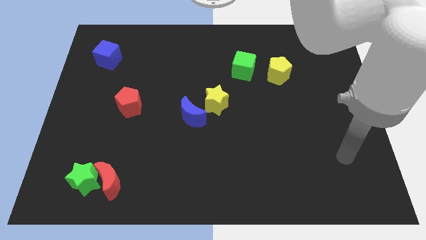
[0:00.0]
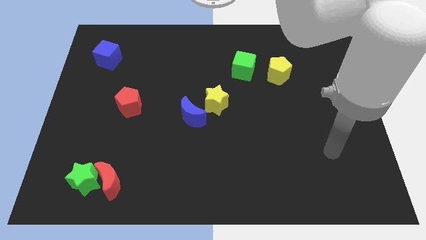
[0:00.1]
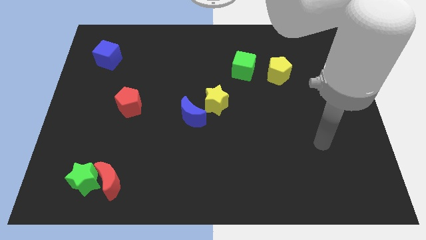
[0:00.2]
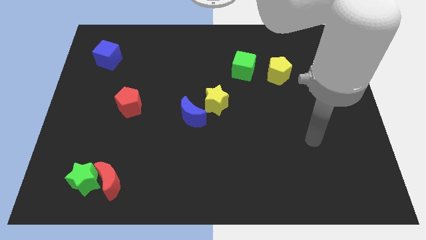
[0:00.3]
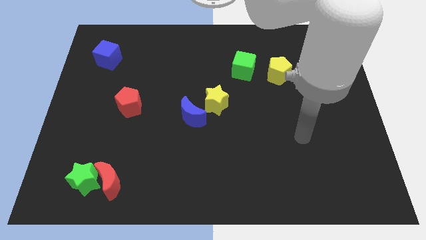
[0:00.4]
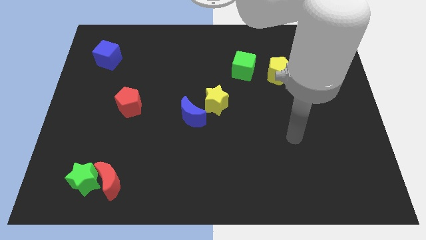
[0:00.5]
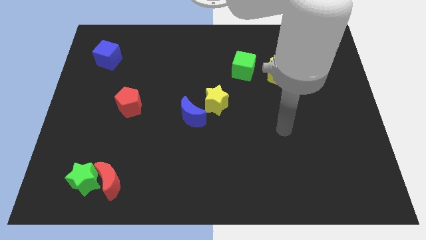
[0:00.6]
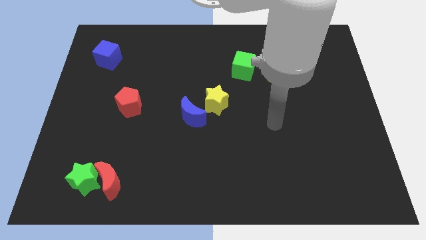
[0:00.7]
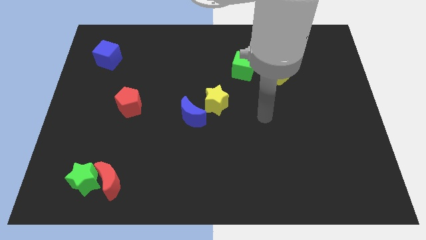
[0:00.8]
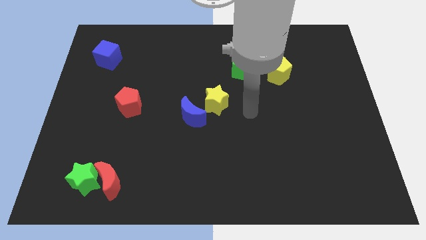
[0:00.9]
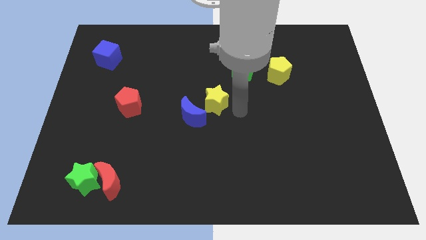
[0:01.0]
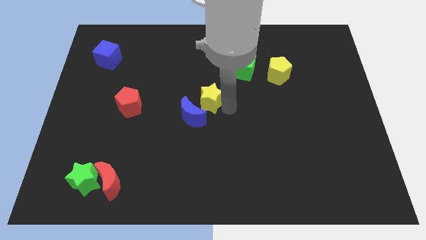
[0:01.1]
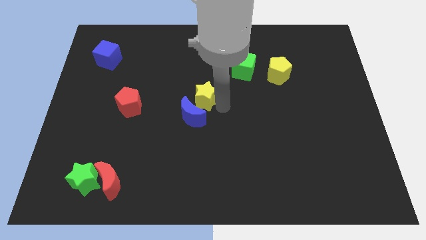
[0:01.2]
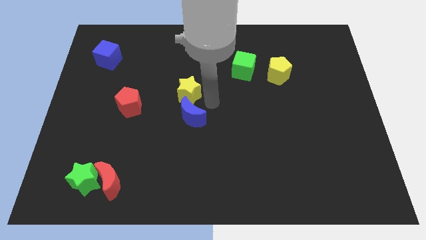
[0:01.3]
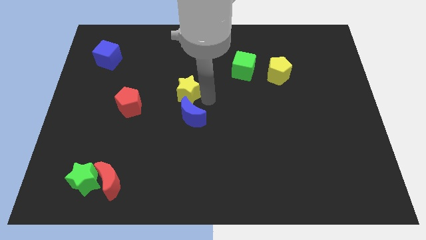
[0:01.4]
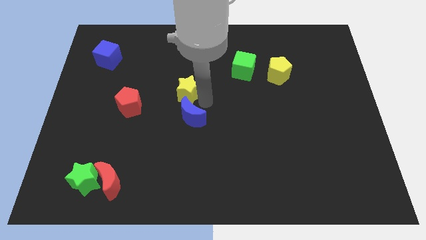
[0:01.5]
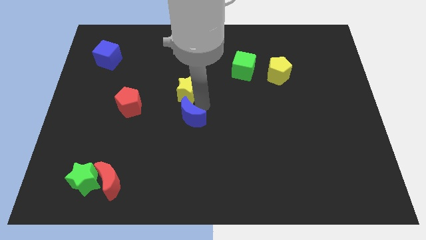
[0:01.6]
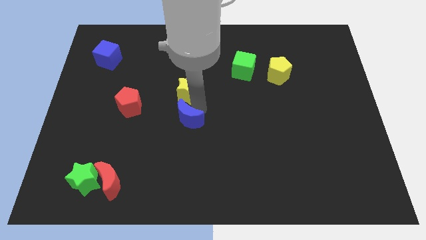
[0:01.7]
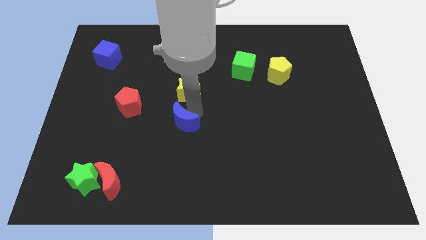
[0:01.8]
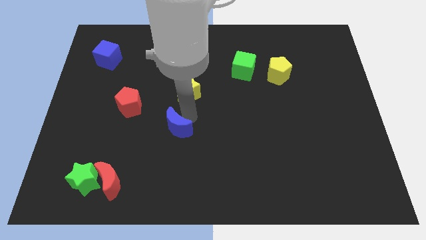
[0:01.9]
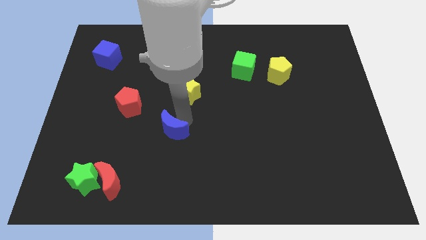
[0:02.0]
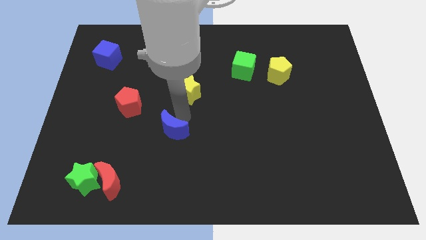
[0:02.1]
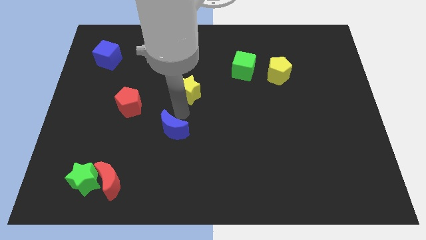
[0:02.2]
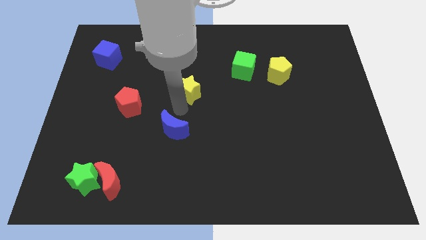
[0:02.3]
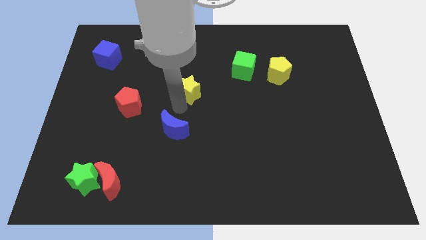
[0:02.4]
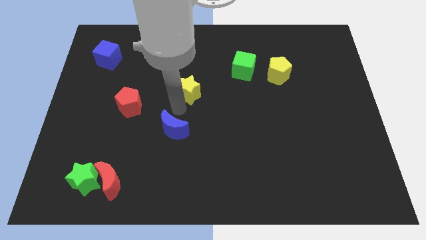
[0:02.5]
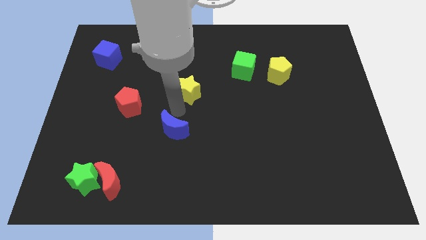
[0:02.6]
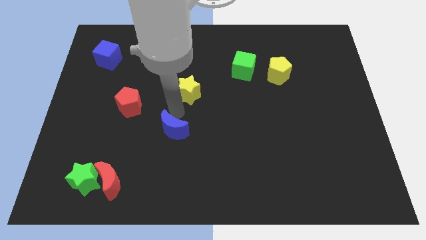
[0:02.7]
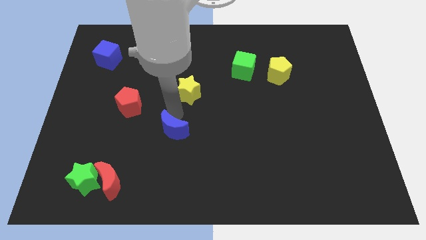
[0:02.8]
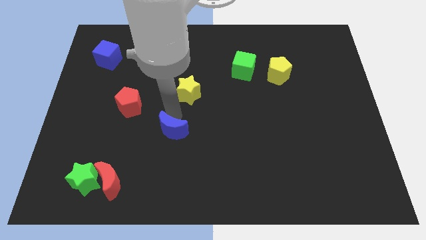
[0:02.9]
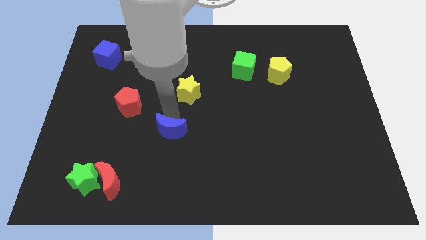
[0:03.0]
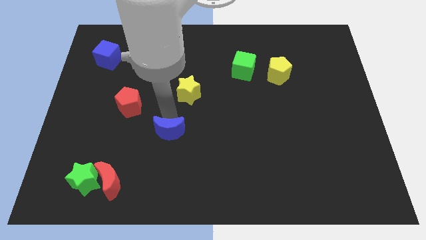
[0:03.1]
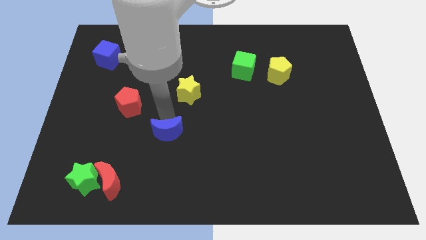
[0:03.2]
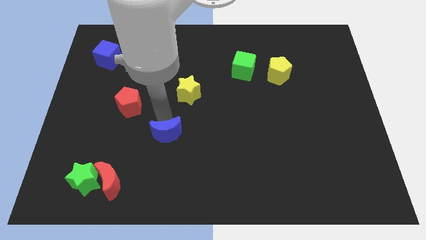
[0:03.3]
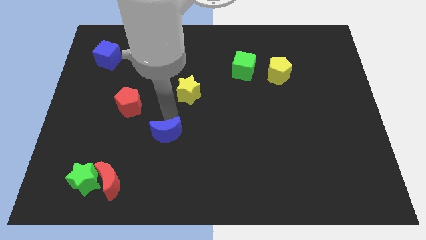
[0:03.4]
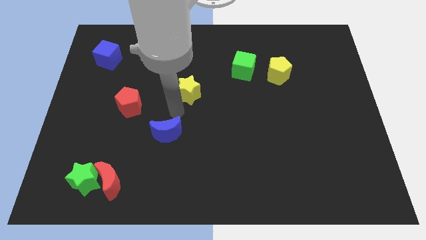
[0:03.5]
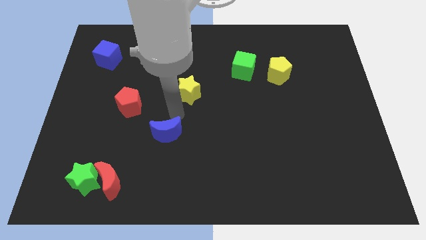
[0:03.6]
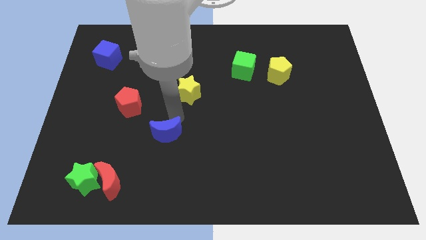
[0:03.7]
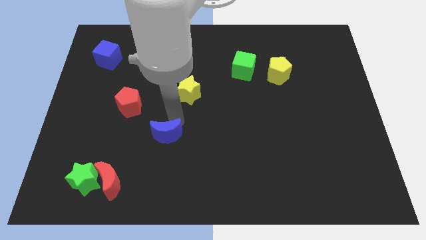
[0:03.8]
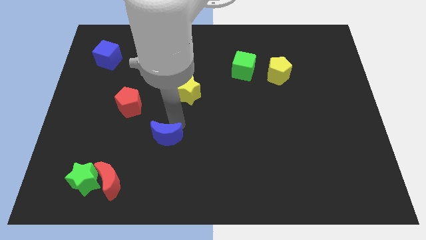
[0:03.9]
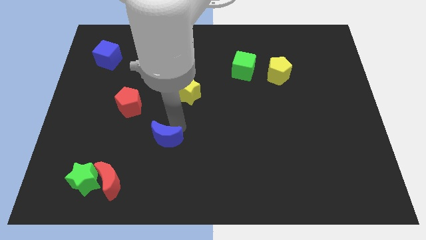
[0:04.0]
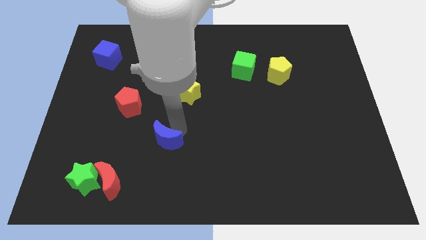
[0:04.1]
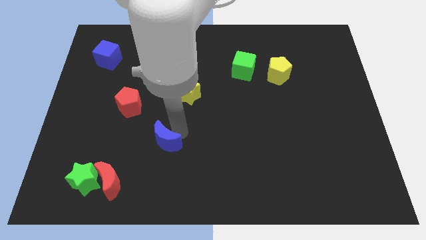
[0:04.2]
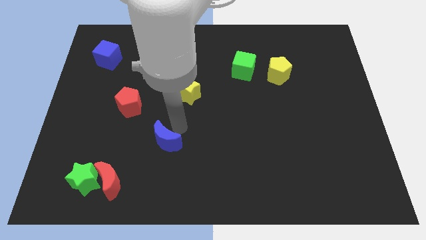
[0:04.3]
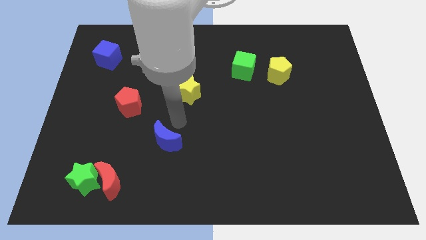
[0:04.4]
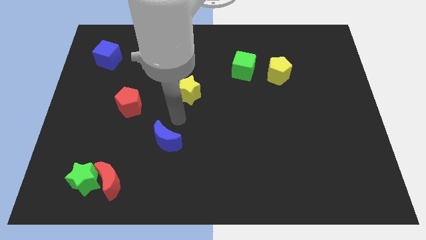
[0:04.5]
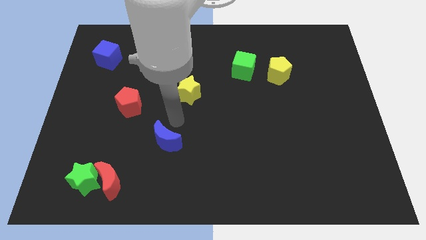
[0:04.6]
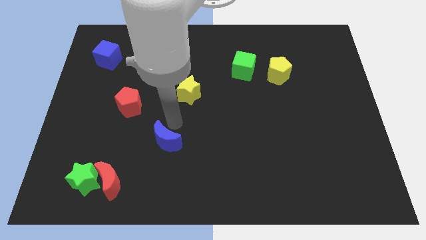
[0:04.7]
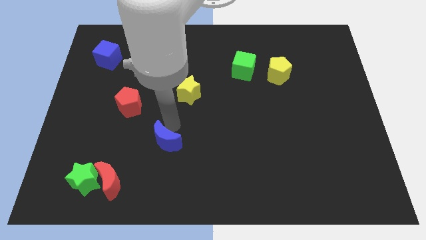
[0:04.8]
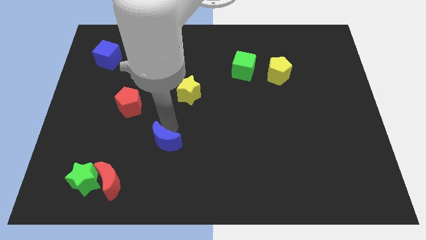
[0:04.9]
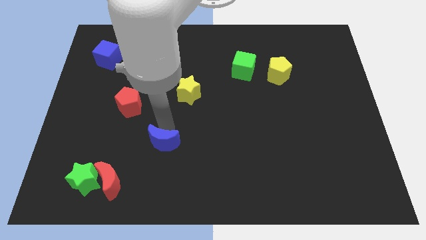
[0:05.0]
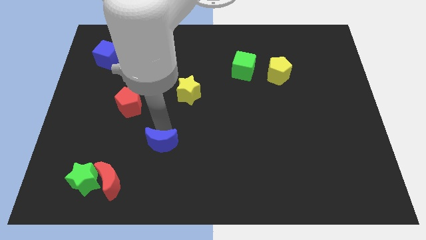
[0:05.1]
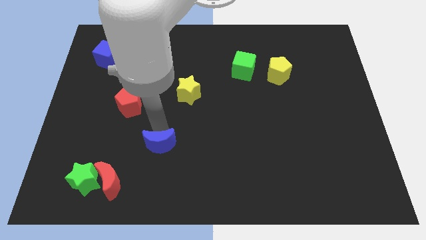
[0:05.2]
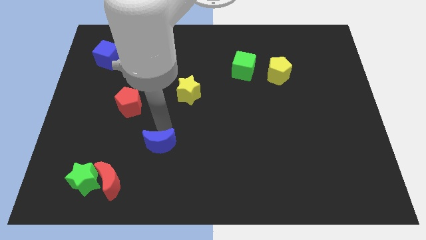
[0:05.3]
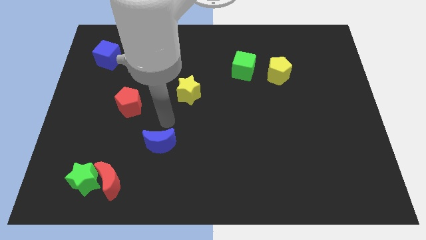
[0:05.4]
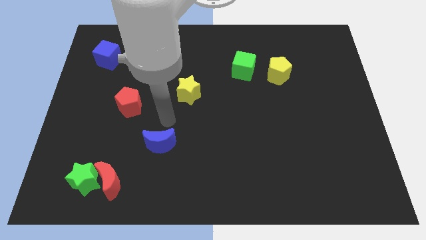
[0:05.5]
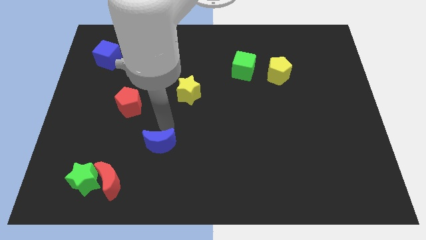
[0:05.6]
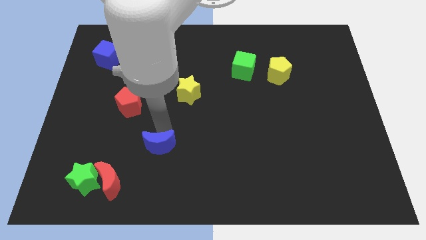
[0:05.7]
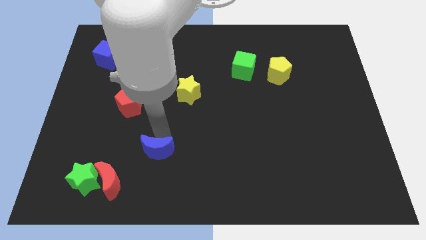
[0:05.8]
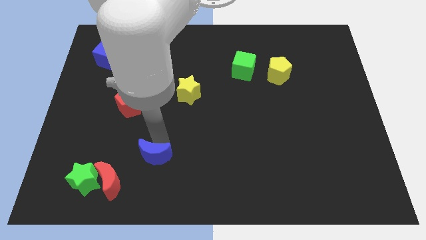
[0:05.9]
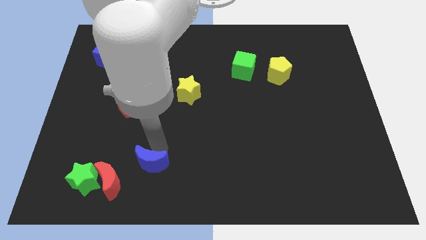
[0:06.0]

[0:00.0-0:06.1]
put the blue moon to the right side of the green star

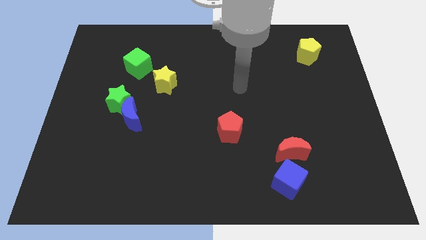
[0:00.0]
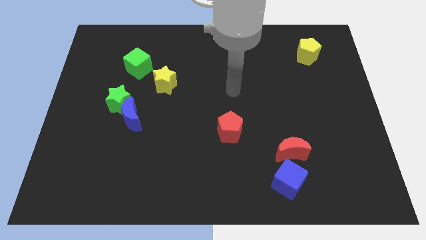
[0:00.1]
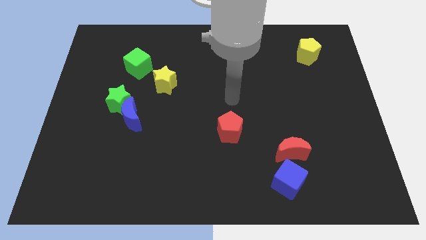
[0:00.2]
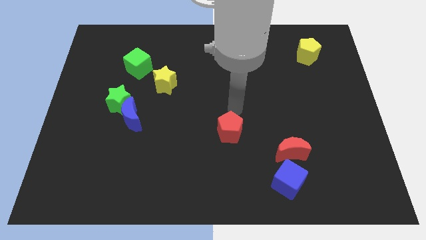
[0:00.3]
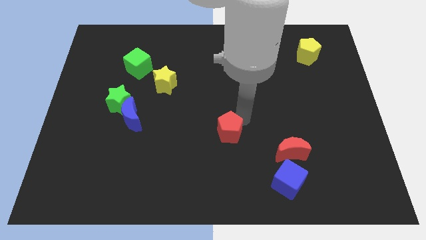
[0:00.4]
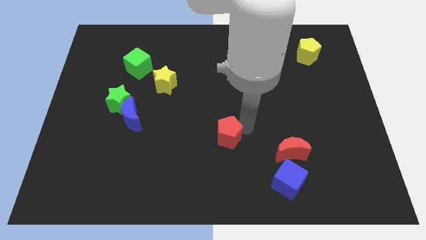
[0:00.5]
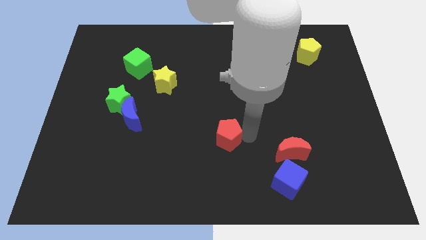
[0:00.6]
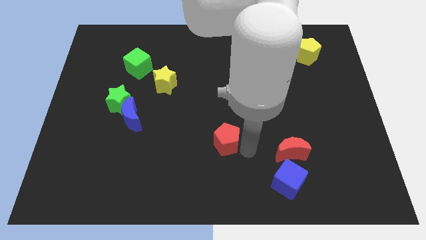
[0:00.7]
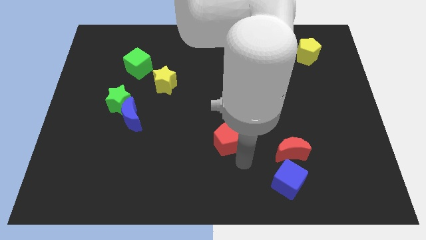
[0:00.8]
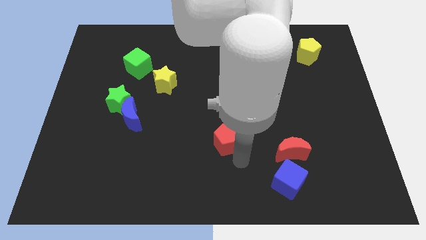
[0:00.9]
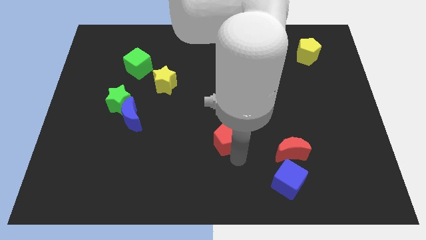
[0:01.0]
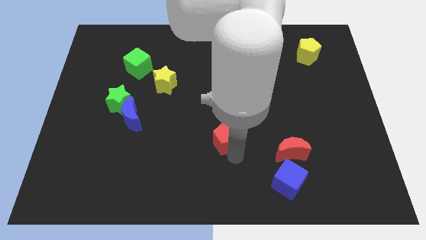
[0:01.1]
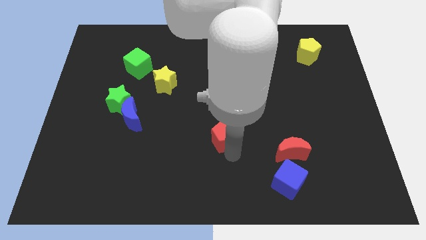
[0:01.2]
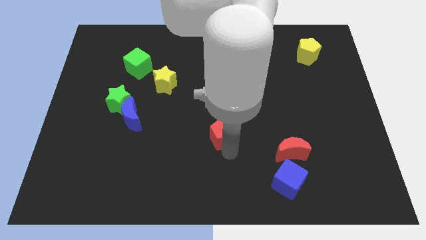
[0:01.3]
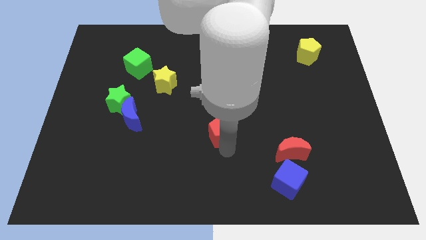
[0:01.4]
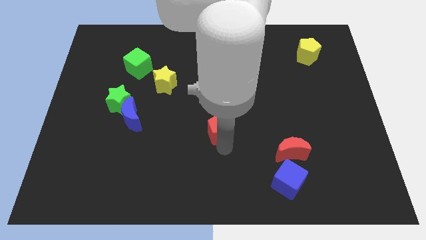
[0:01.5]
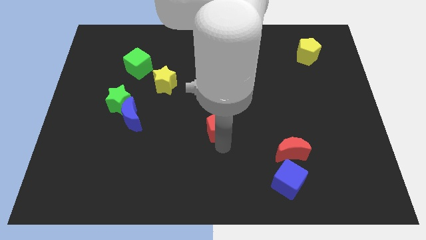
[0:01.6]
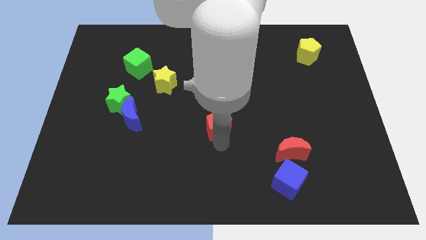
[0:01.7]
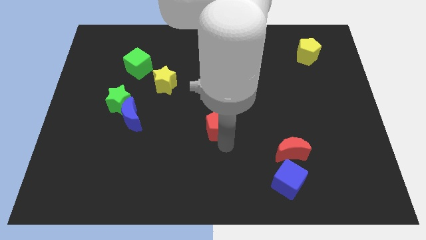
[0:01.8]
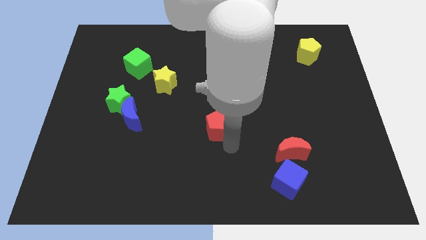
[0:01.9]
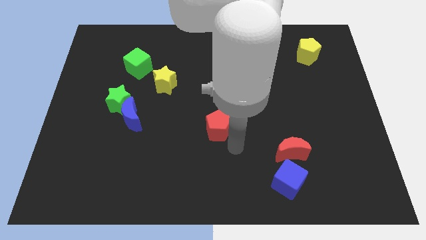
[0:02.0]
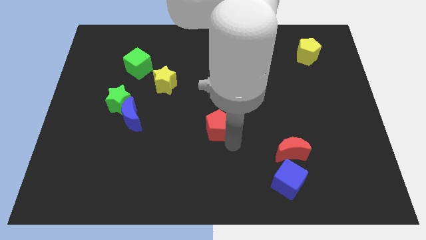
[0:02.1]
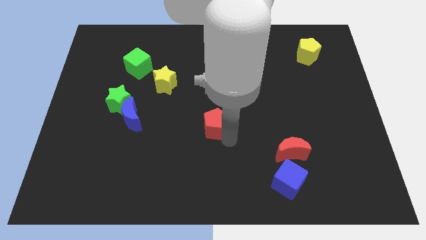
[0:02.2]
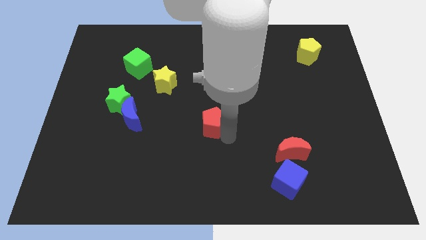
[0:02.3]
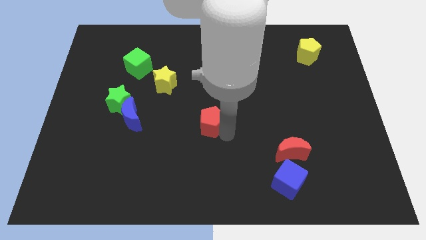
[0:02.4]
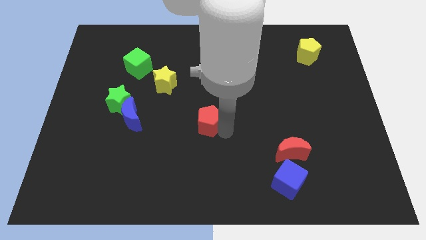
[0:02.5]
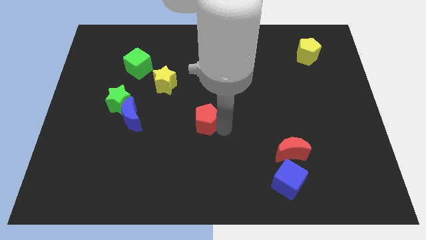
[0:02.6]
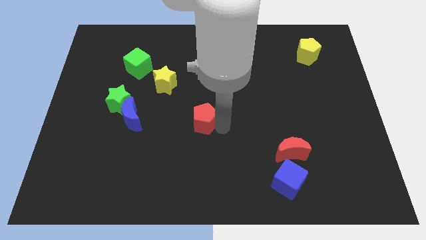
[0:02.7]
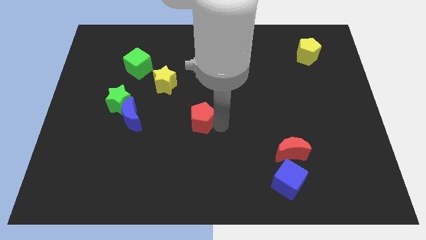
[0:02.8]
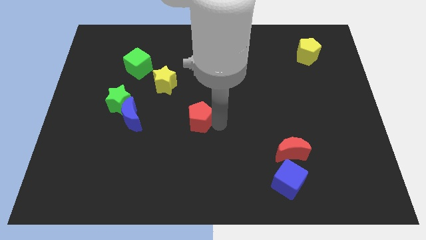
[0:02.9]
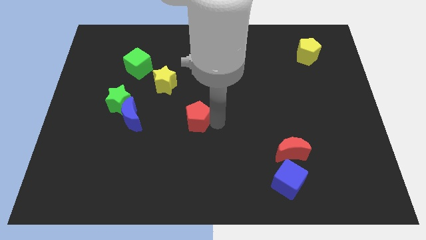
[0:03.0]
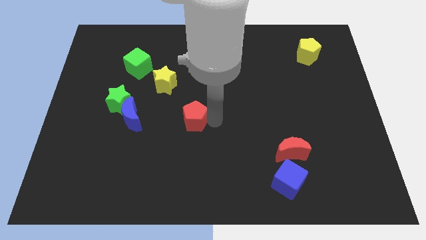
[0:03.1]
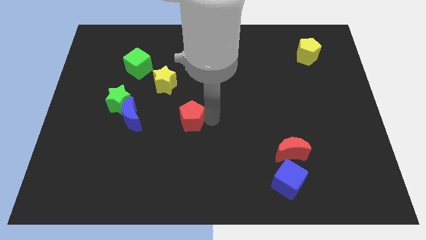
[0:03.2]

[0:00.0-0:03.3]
put the red pentagon to the bottom right side of the yellow star
